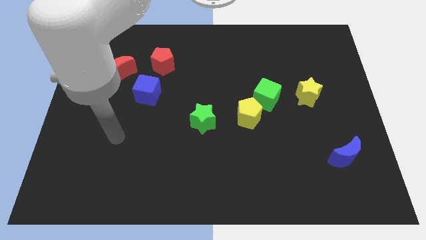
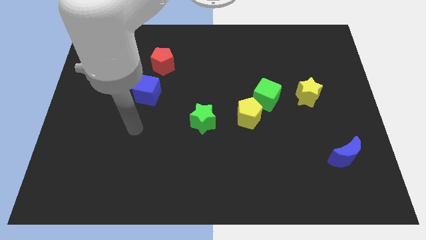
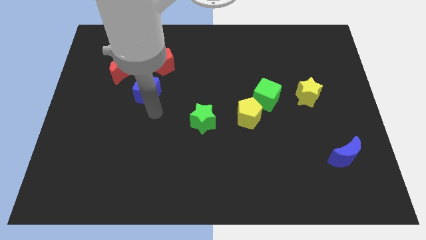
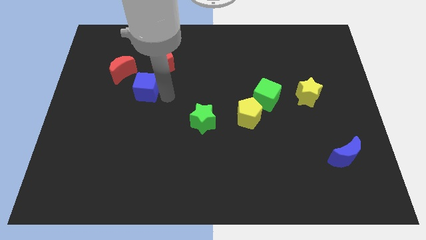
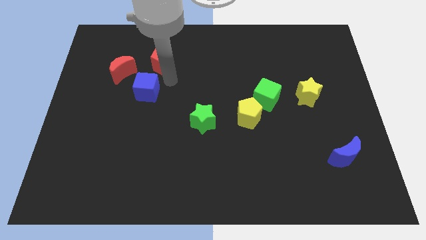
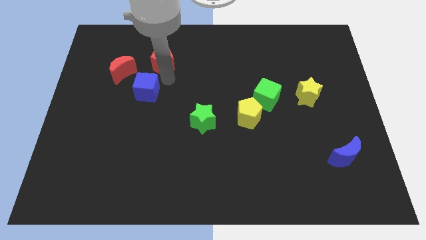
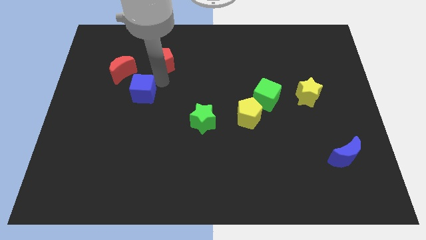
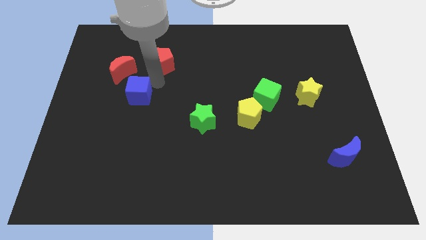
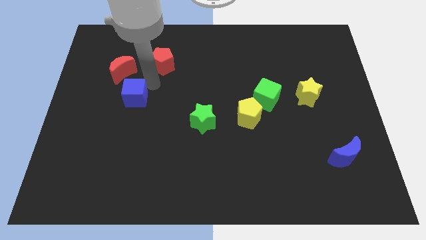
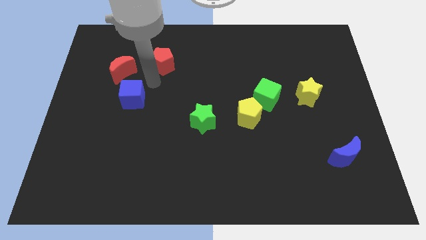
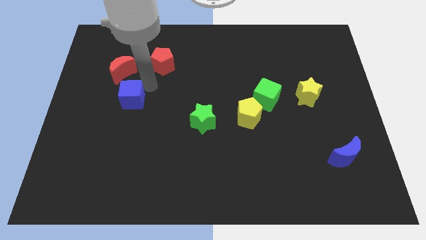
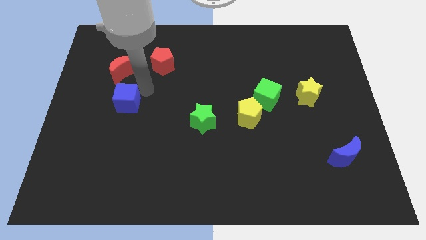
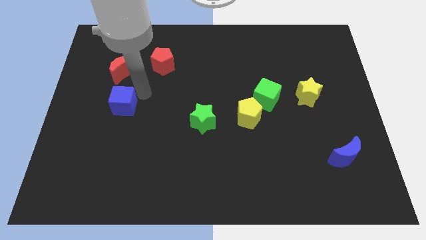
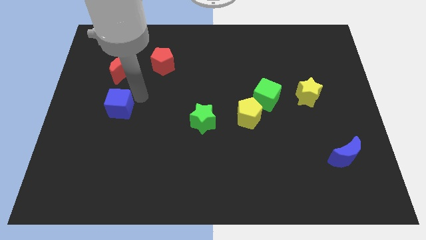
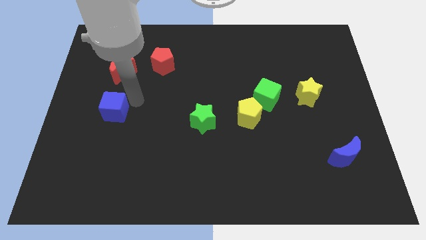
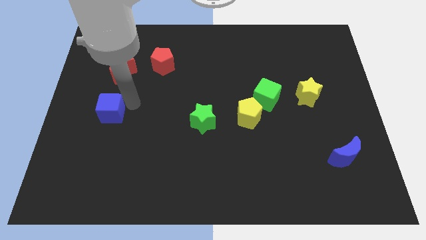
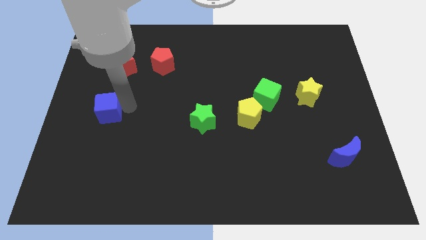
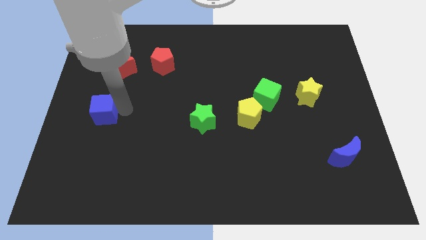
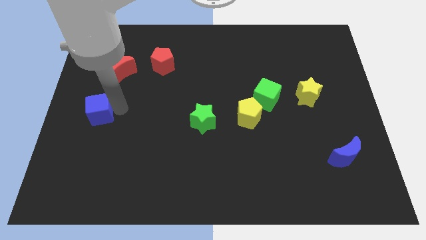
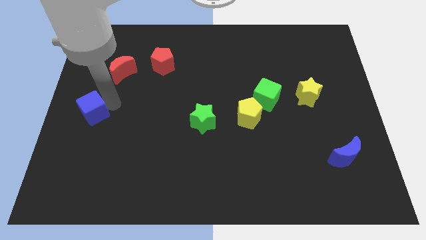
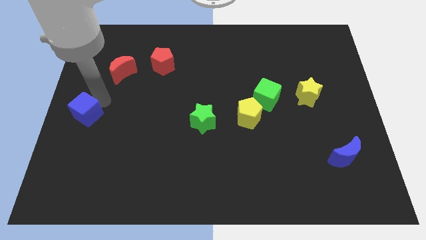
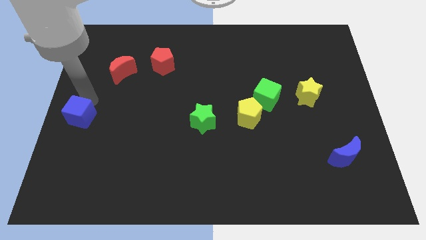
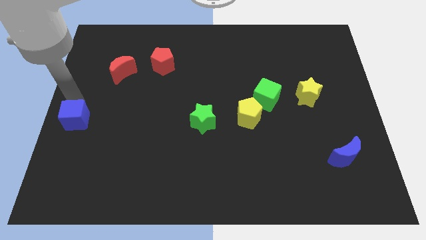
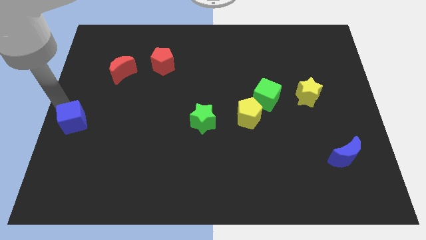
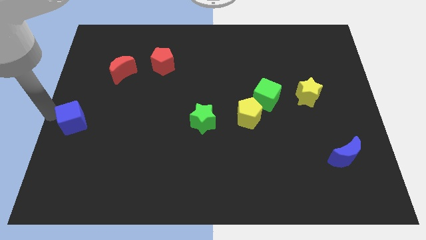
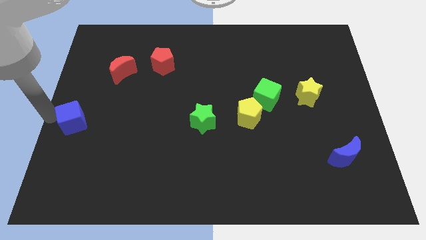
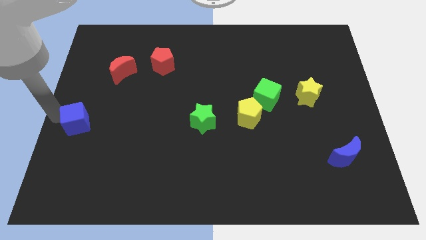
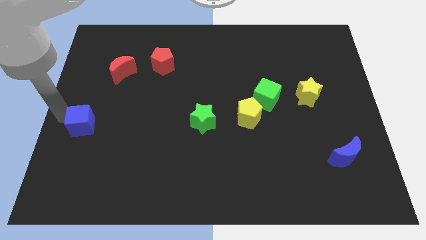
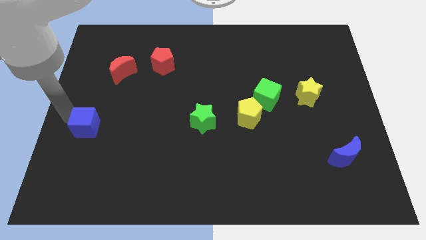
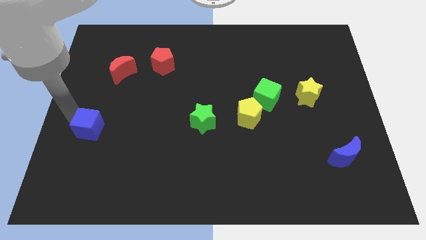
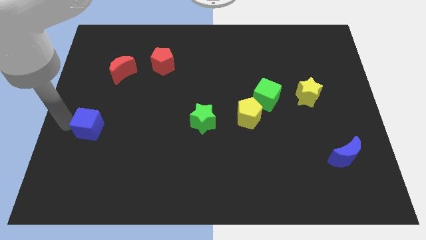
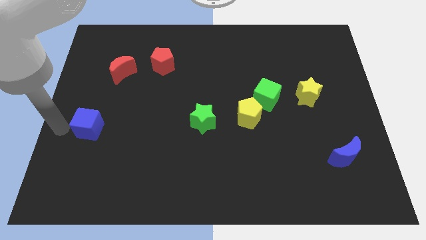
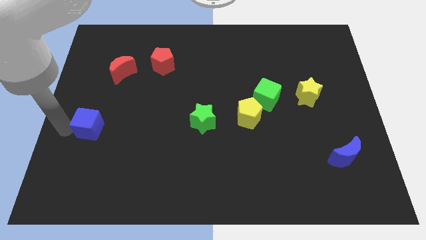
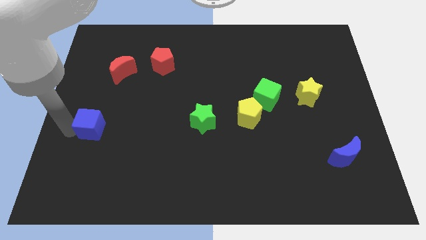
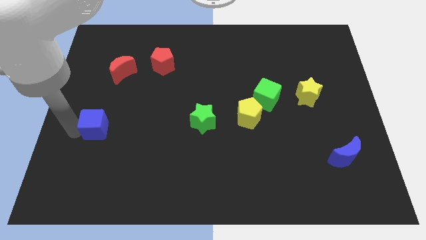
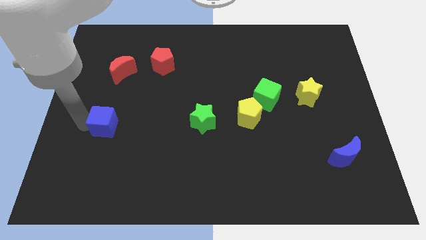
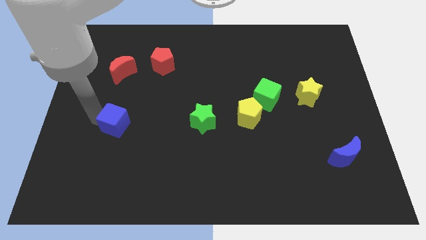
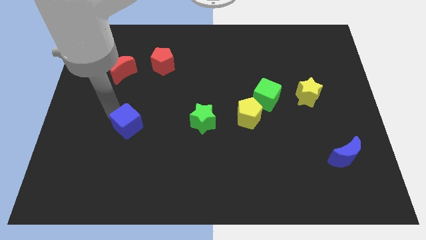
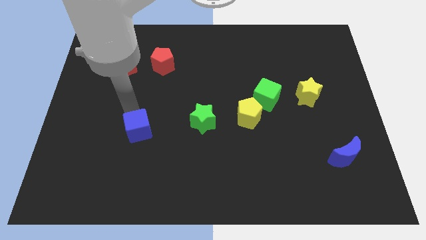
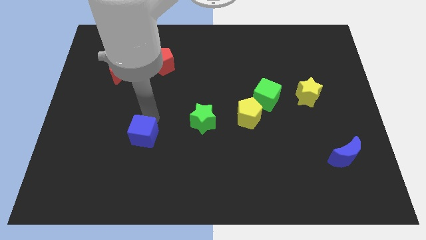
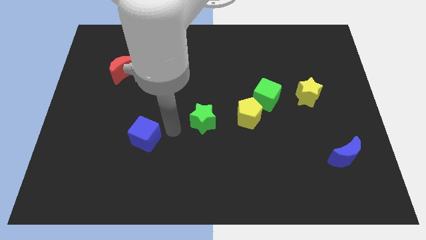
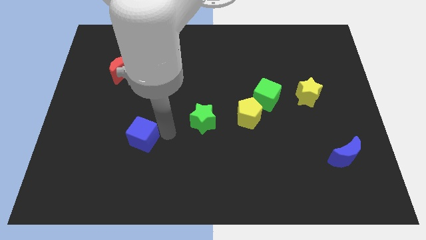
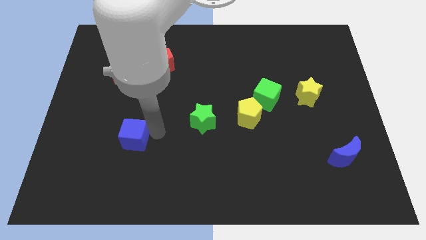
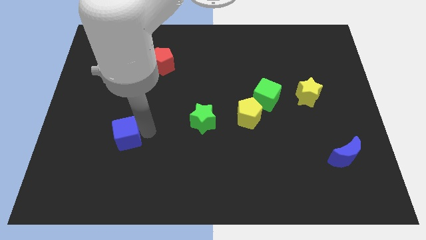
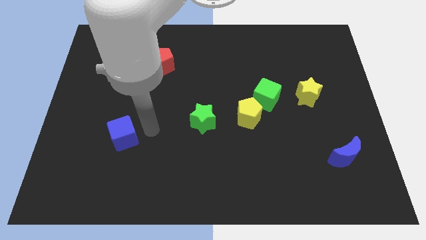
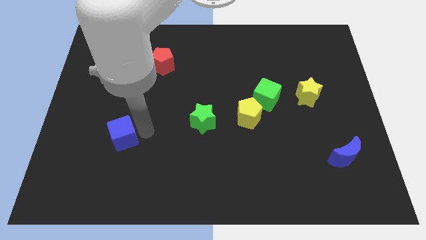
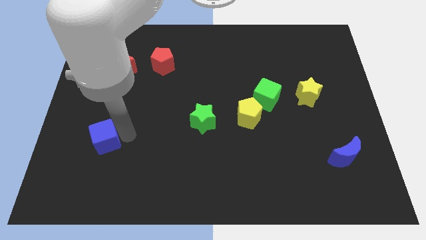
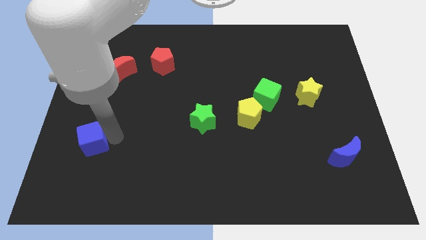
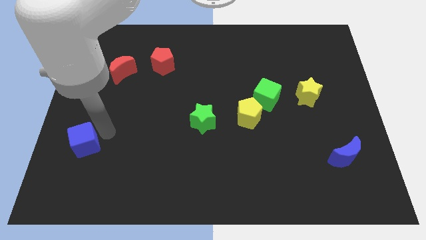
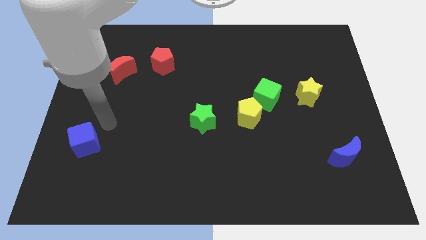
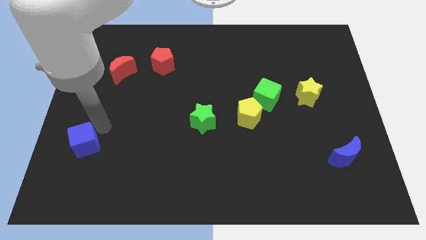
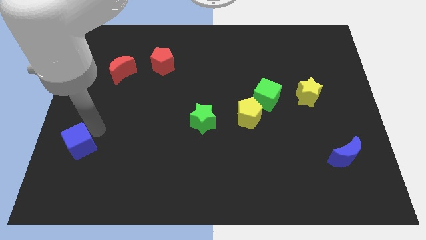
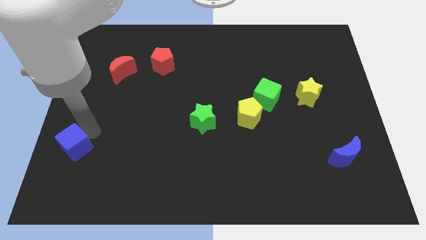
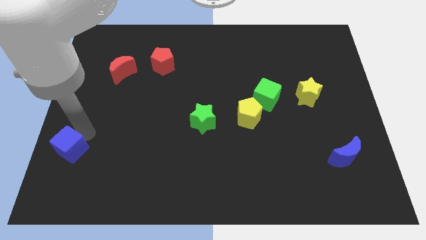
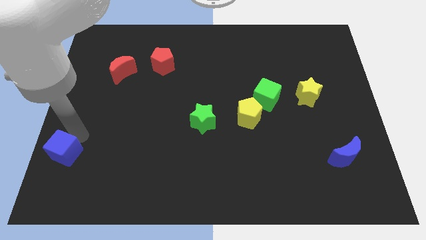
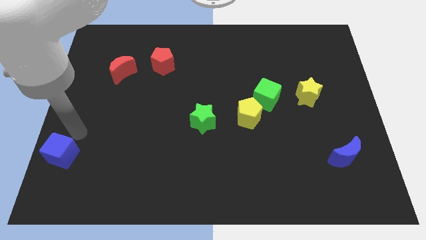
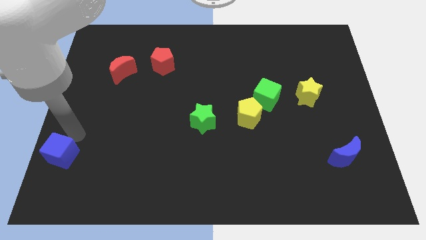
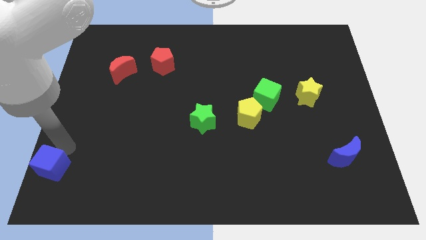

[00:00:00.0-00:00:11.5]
slide the blue cube to the bottom left corner

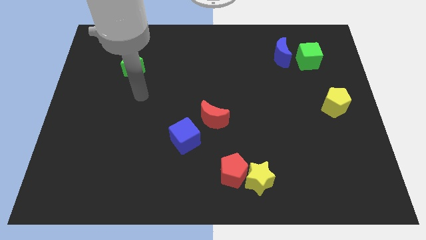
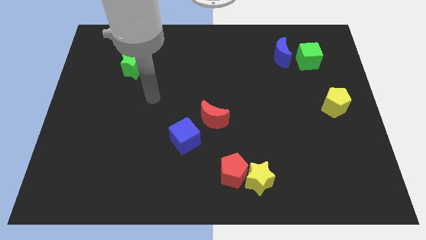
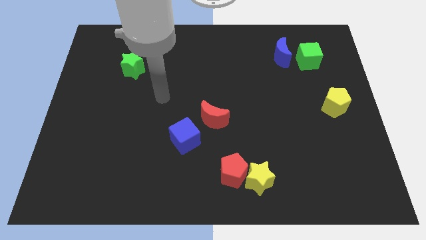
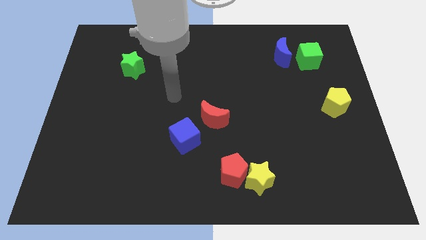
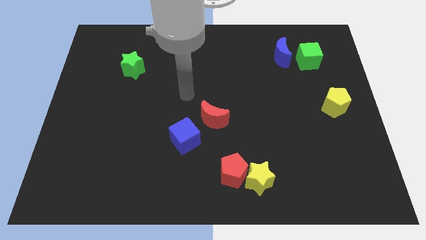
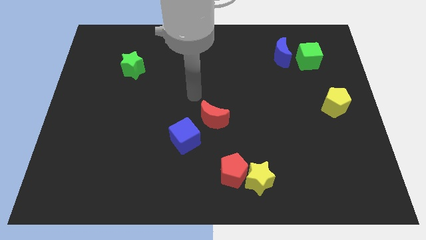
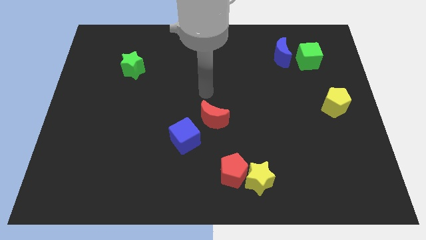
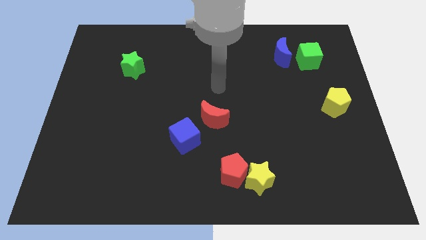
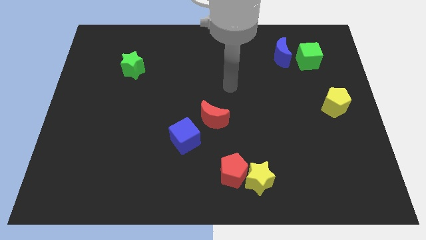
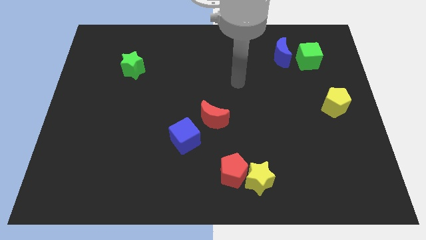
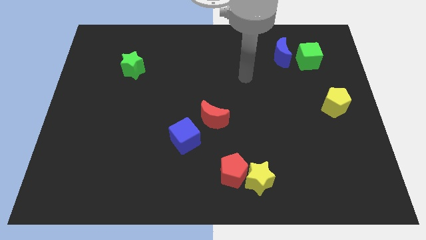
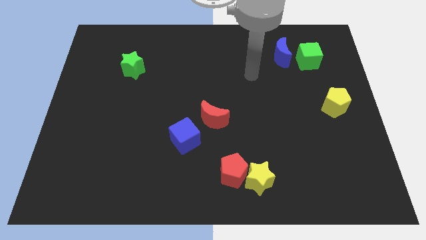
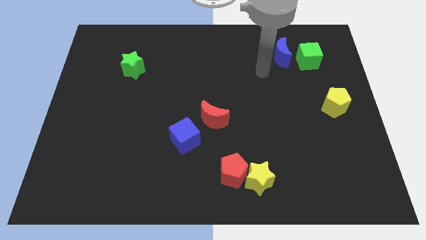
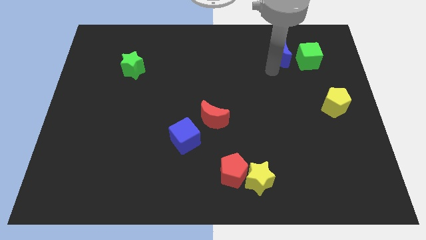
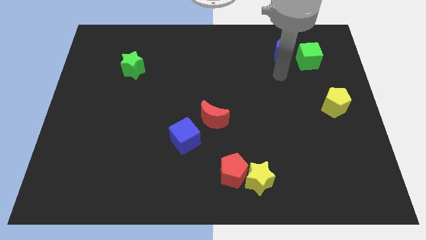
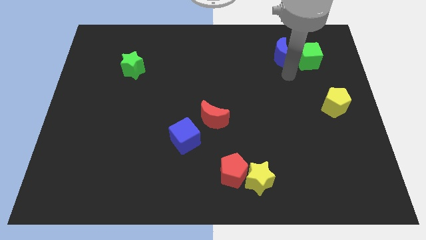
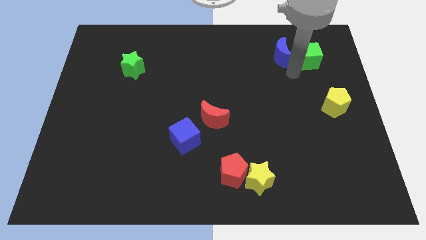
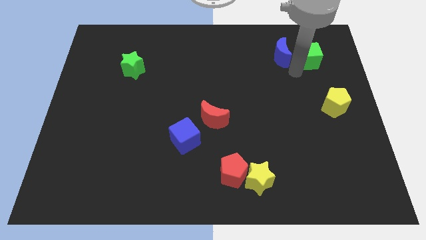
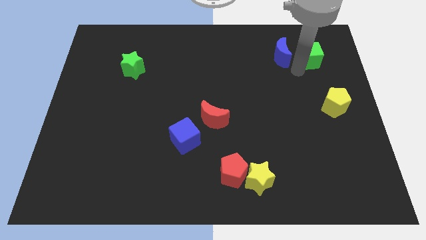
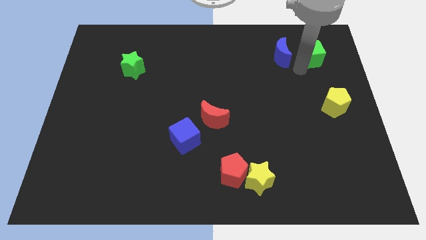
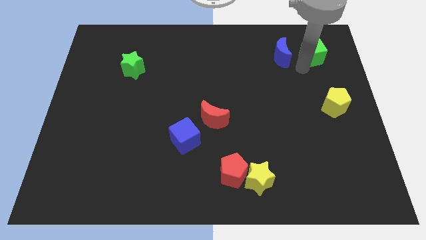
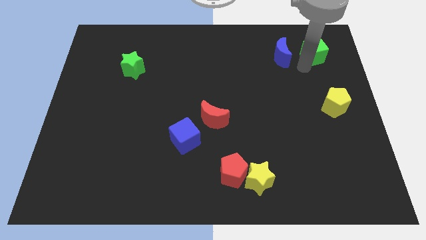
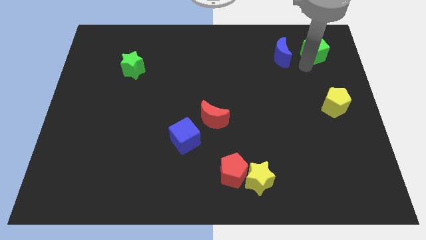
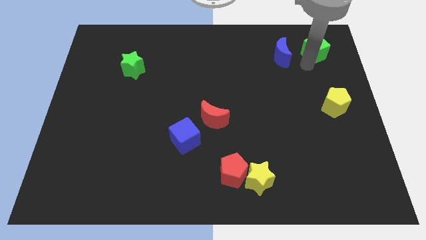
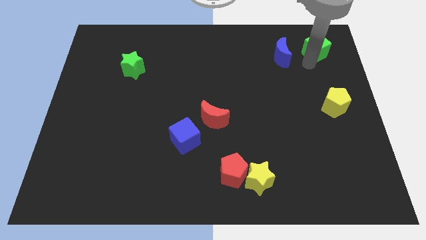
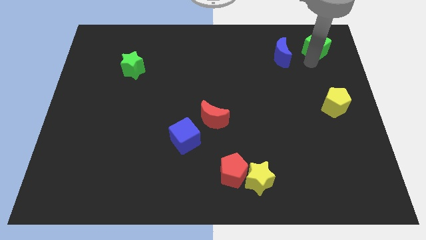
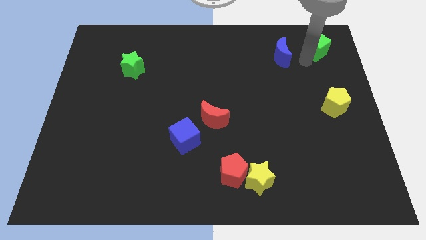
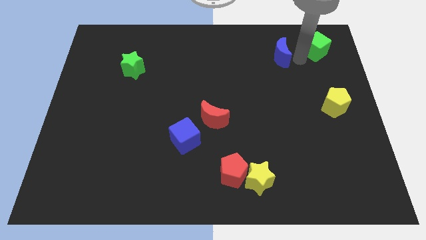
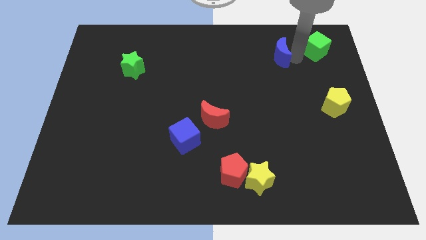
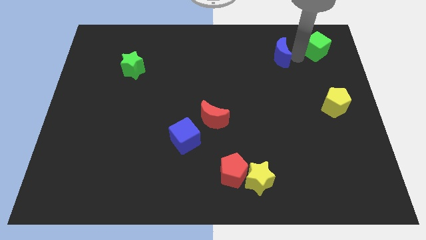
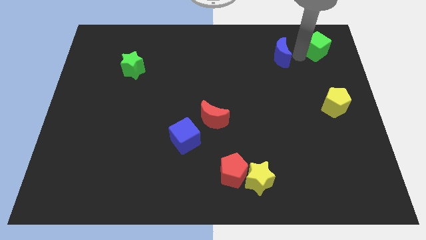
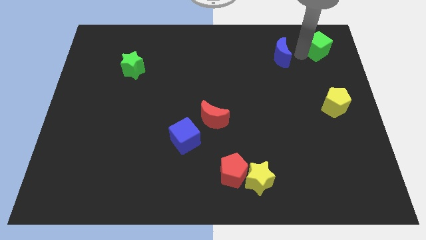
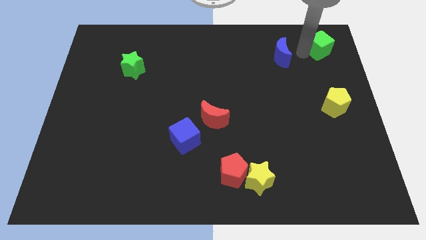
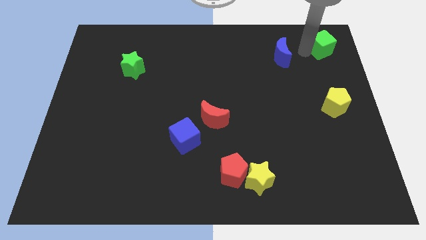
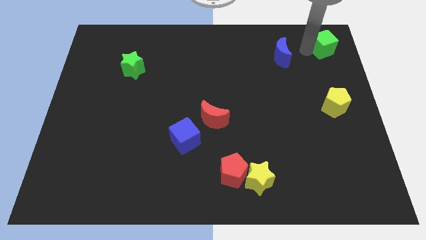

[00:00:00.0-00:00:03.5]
push the green cube to the top right corner
